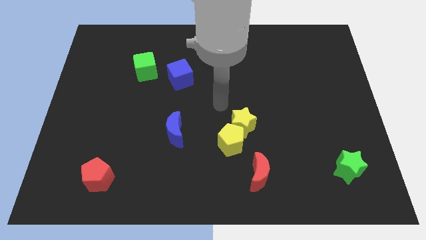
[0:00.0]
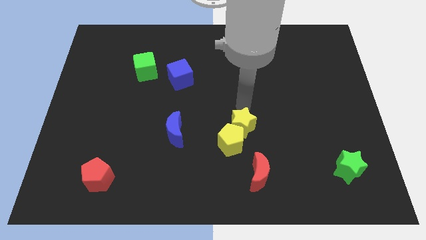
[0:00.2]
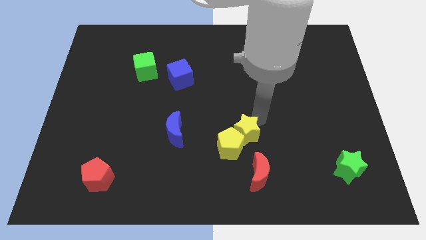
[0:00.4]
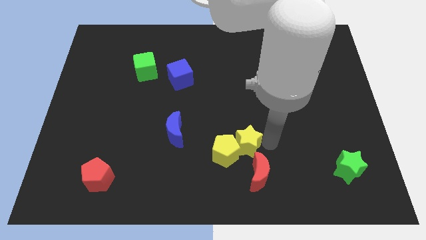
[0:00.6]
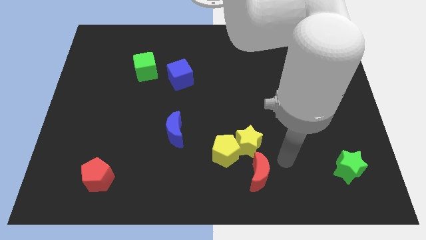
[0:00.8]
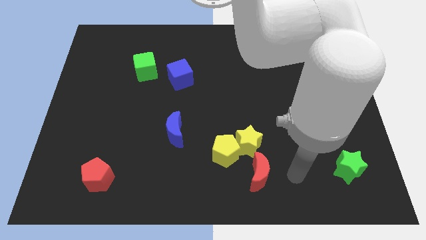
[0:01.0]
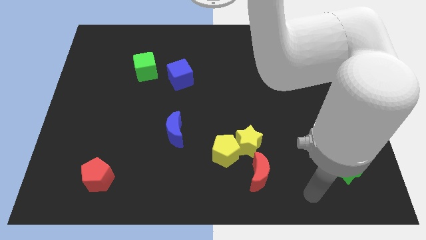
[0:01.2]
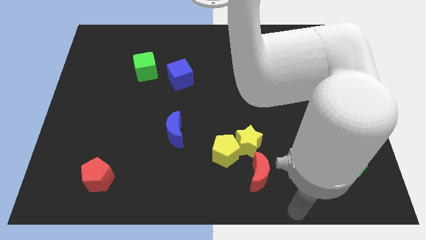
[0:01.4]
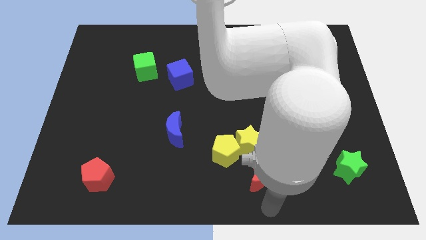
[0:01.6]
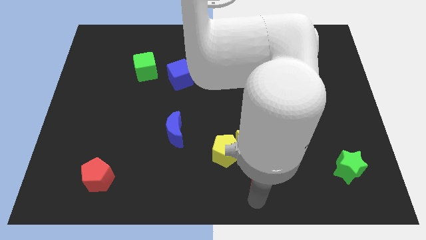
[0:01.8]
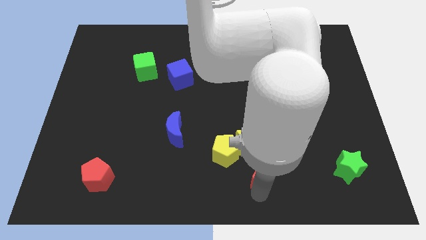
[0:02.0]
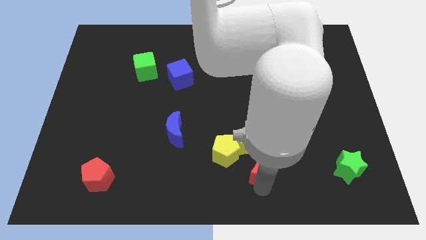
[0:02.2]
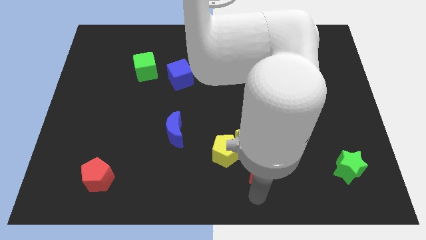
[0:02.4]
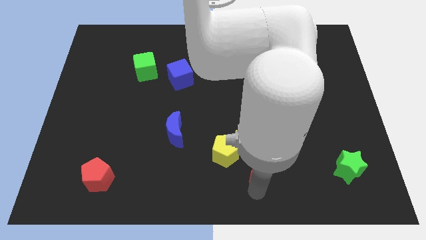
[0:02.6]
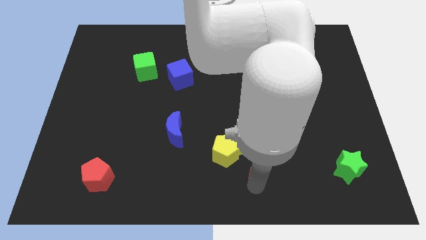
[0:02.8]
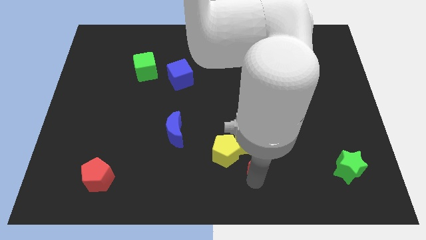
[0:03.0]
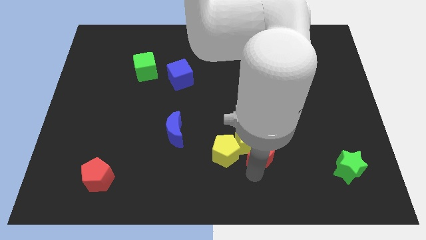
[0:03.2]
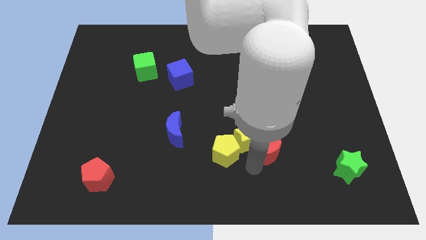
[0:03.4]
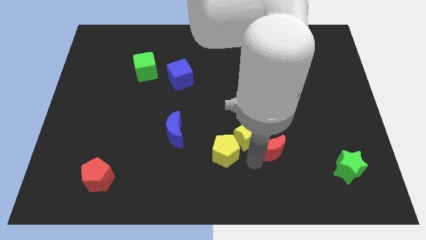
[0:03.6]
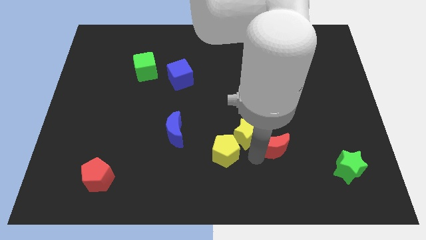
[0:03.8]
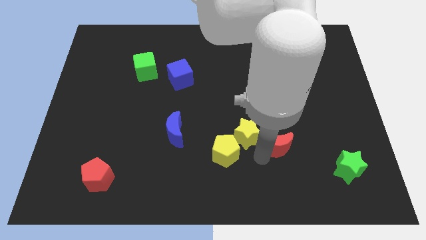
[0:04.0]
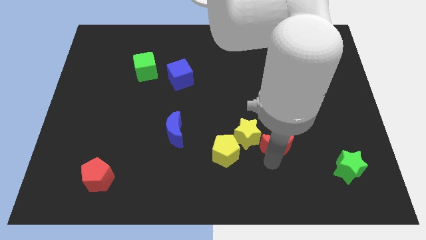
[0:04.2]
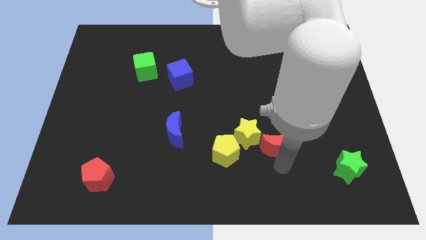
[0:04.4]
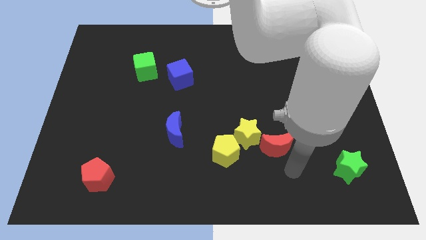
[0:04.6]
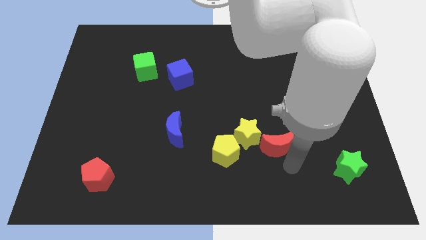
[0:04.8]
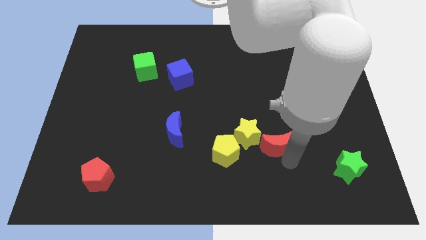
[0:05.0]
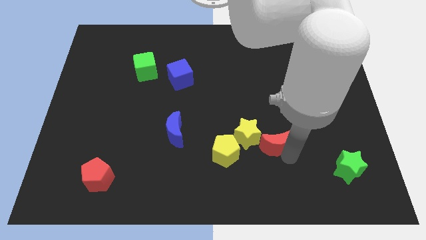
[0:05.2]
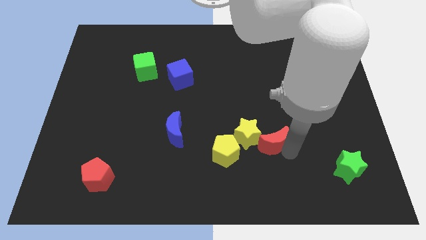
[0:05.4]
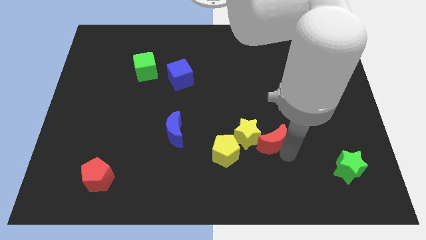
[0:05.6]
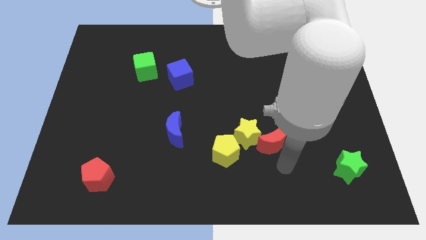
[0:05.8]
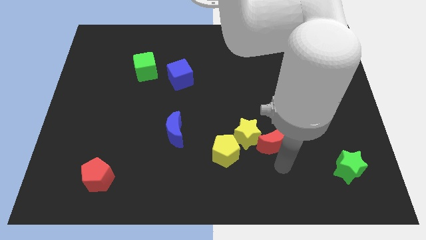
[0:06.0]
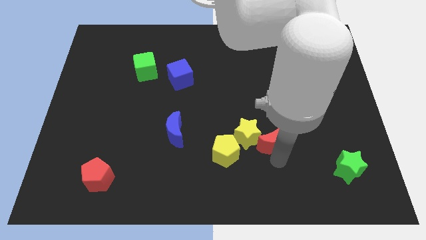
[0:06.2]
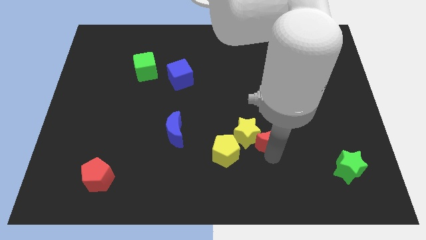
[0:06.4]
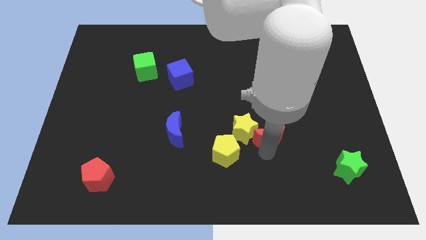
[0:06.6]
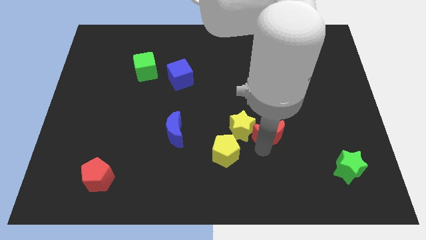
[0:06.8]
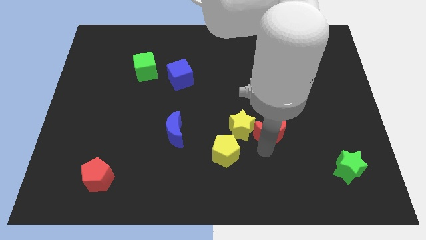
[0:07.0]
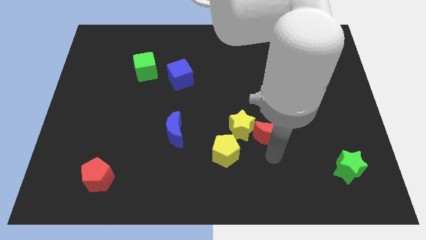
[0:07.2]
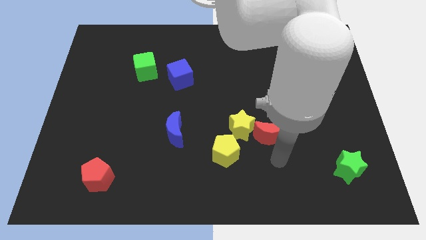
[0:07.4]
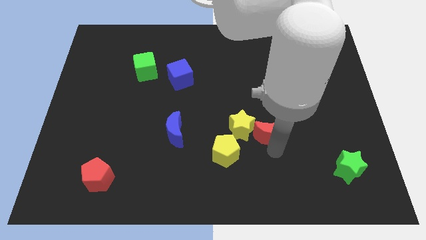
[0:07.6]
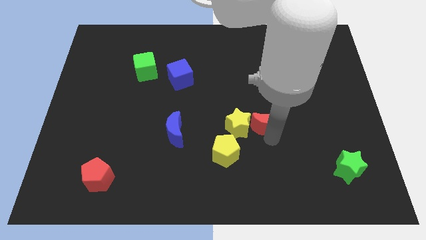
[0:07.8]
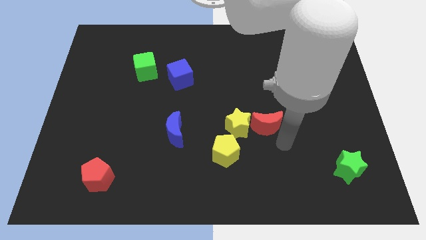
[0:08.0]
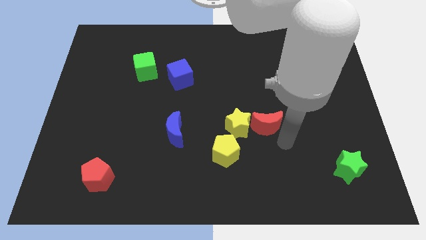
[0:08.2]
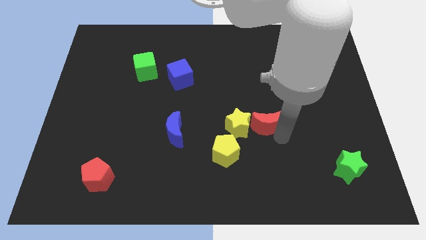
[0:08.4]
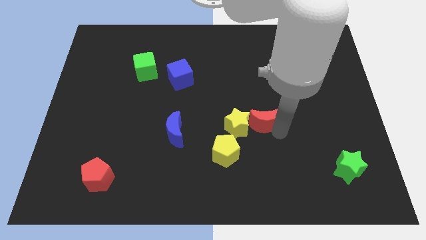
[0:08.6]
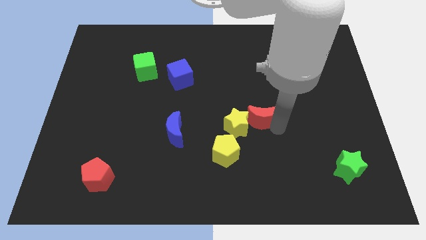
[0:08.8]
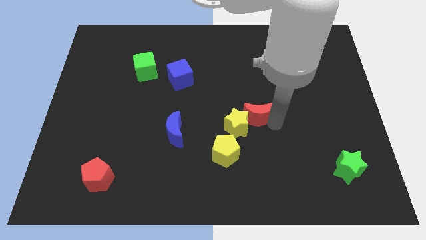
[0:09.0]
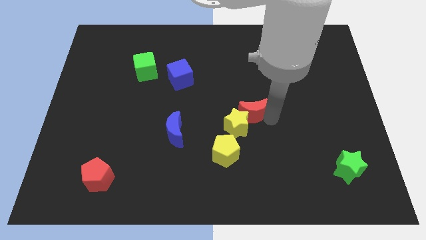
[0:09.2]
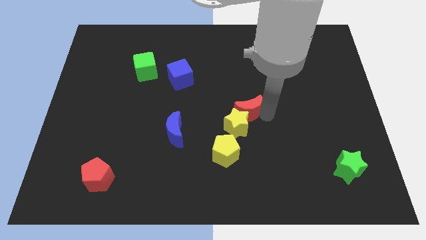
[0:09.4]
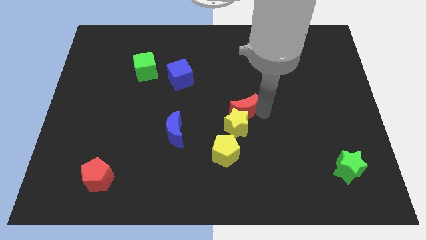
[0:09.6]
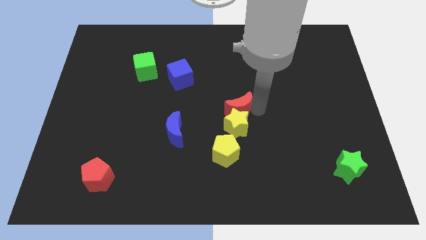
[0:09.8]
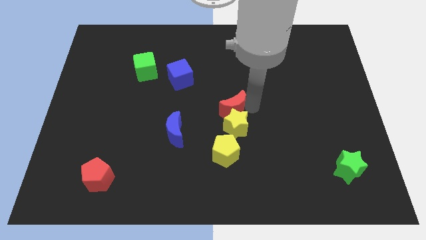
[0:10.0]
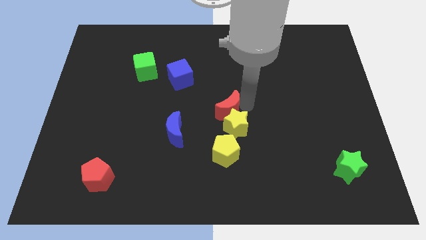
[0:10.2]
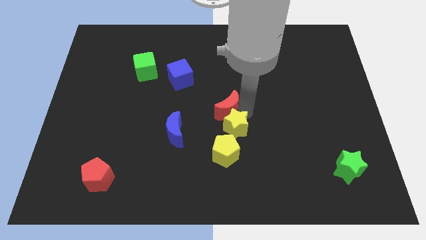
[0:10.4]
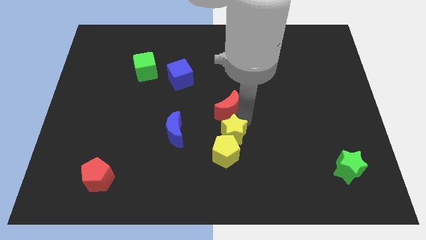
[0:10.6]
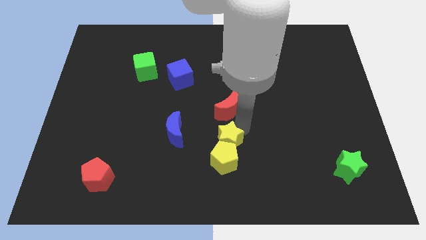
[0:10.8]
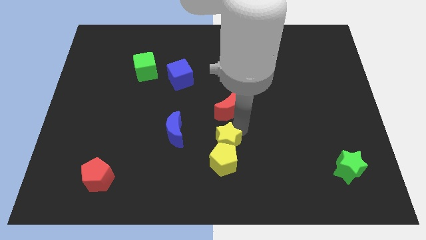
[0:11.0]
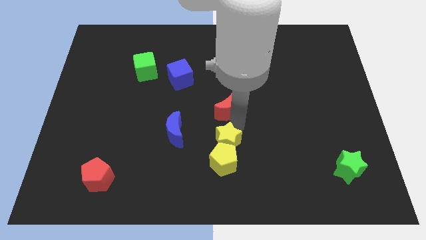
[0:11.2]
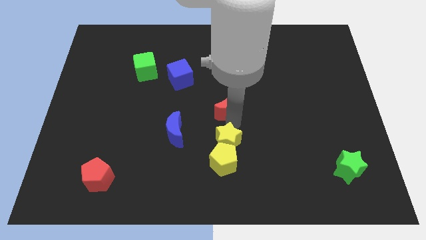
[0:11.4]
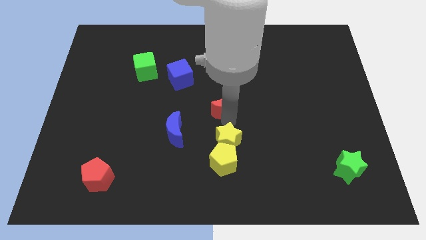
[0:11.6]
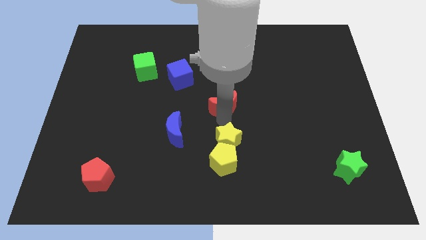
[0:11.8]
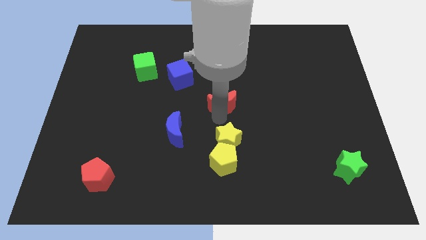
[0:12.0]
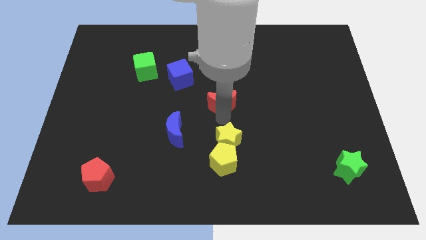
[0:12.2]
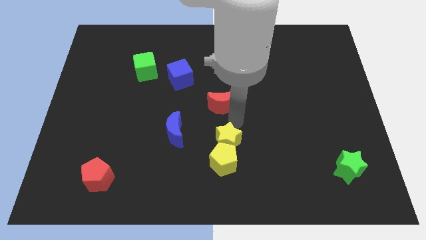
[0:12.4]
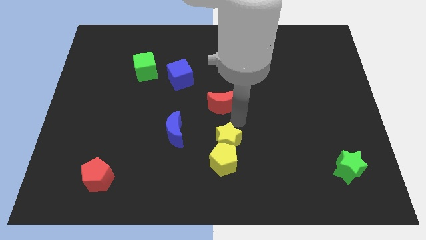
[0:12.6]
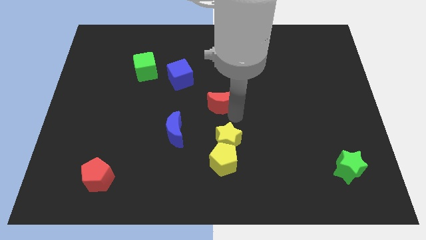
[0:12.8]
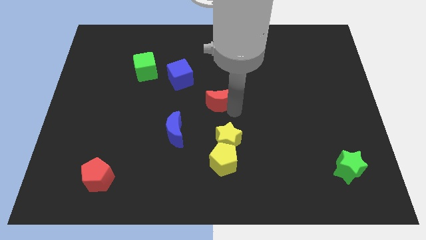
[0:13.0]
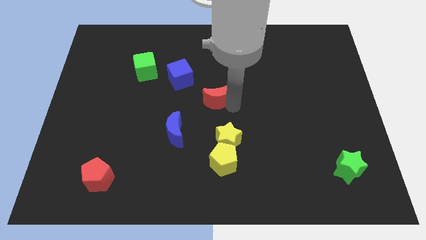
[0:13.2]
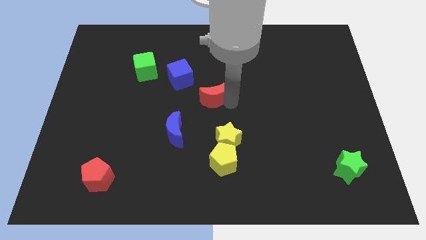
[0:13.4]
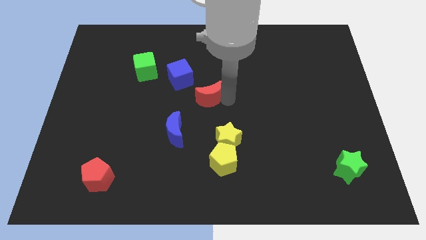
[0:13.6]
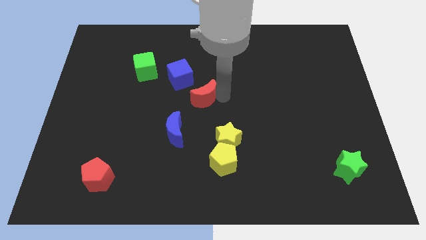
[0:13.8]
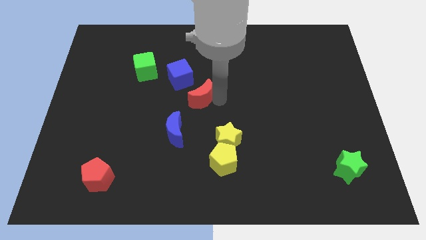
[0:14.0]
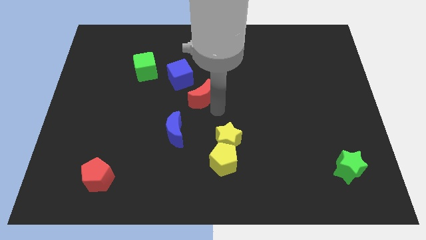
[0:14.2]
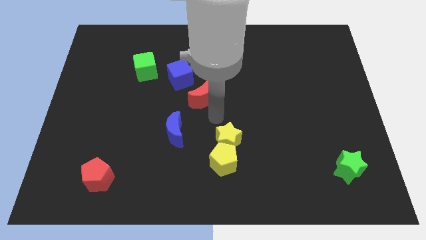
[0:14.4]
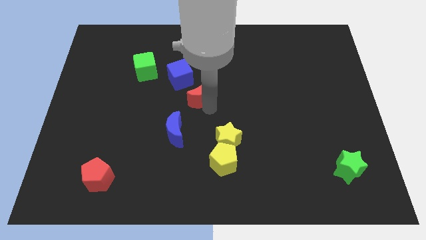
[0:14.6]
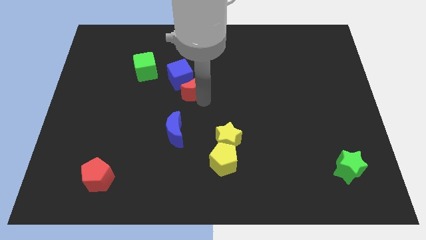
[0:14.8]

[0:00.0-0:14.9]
move the red moon close to the blue cube
